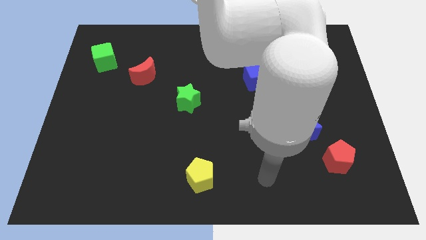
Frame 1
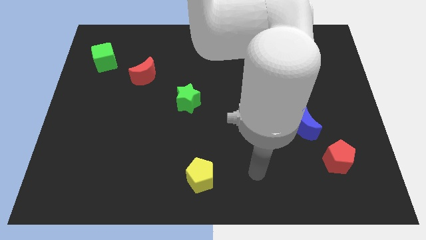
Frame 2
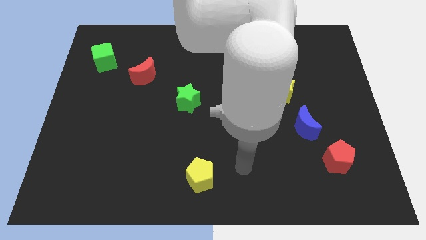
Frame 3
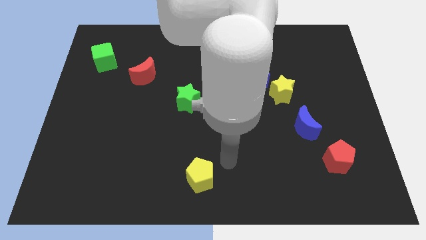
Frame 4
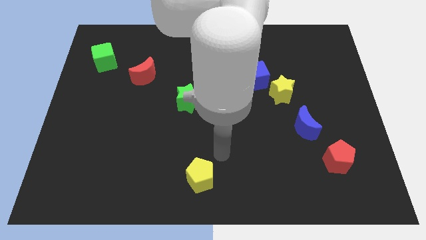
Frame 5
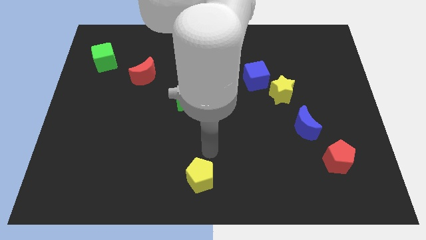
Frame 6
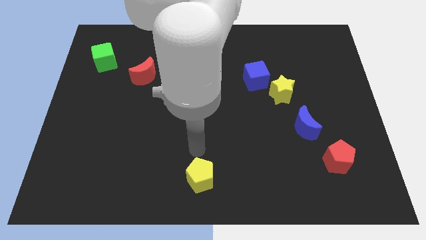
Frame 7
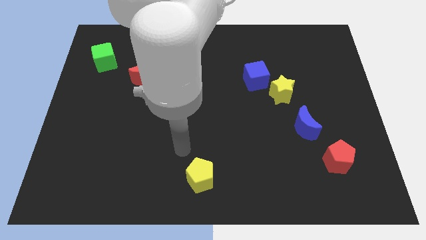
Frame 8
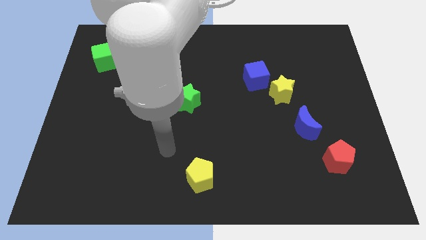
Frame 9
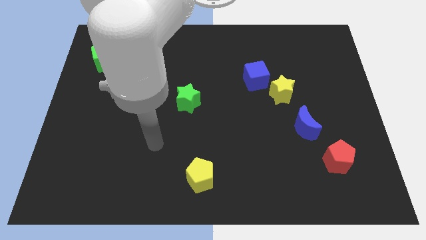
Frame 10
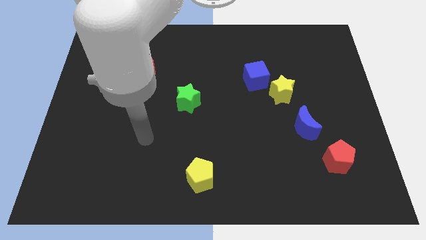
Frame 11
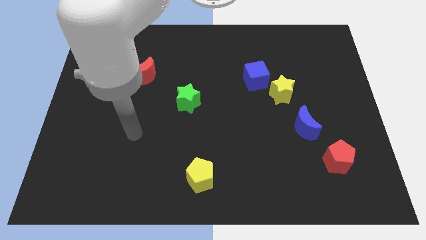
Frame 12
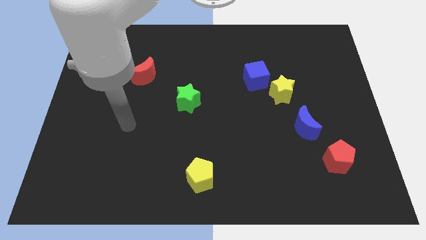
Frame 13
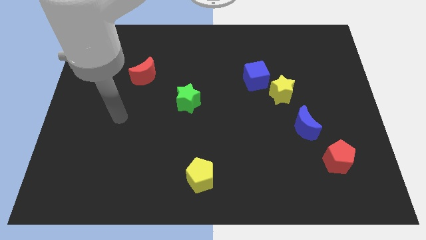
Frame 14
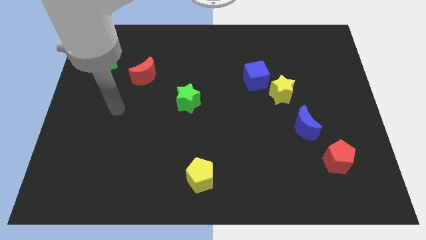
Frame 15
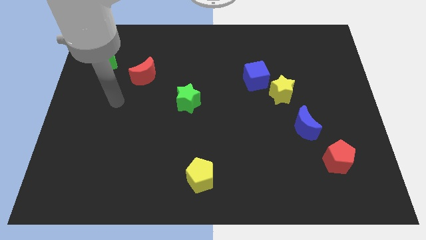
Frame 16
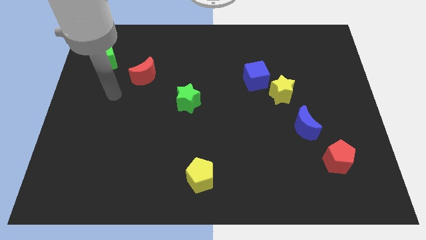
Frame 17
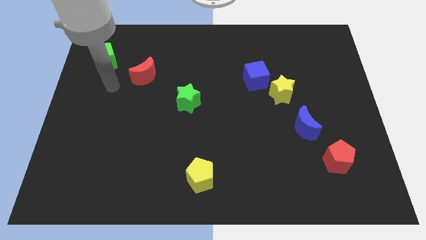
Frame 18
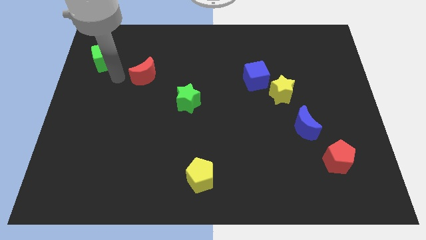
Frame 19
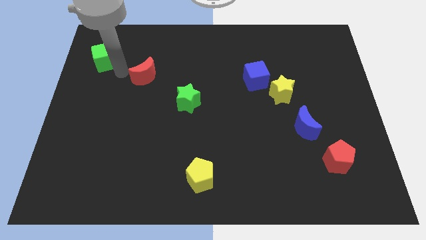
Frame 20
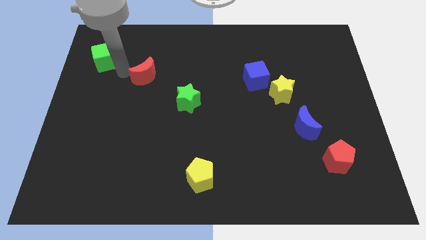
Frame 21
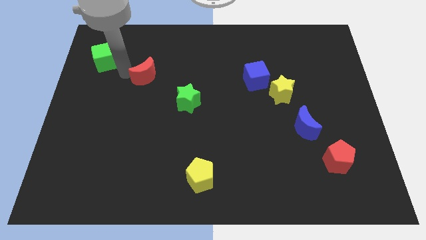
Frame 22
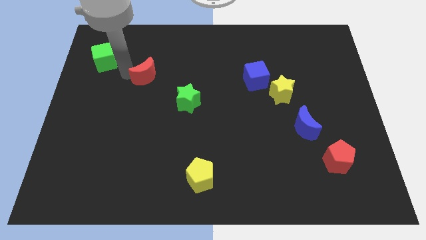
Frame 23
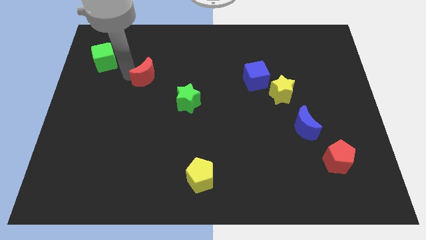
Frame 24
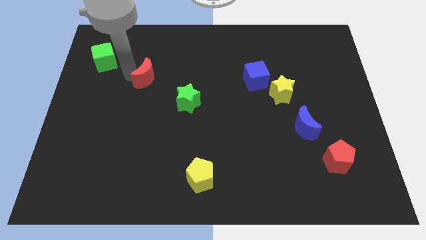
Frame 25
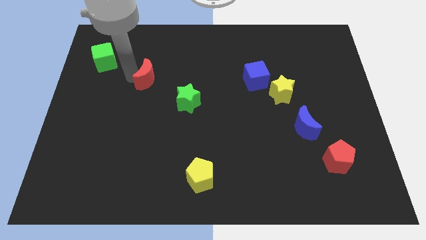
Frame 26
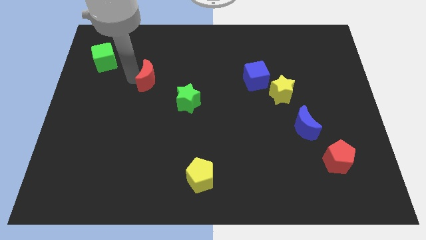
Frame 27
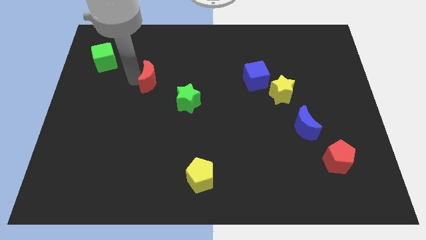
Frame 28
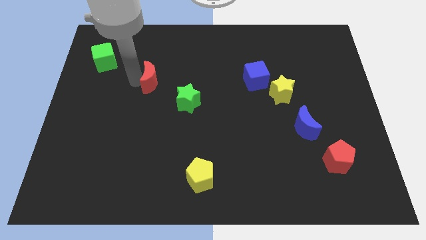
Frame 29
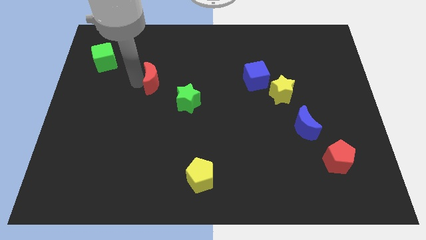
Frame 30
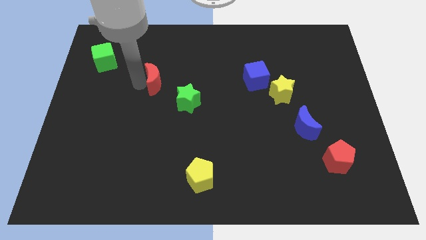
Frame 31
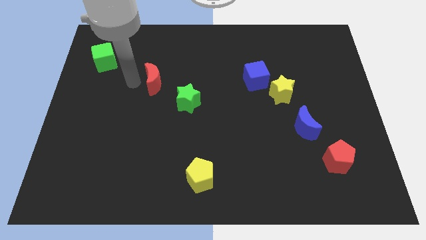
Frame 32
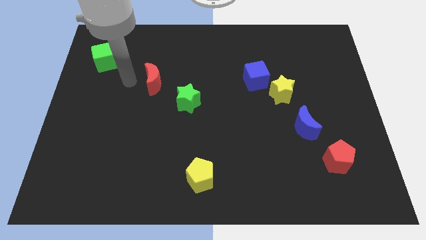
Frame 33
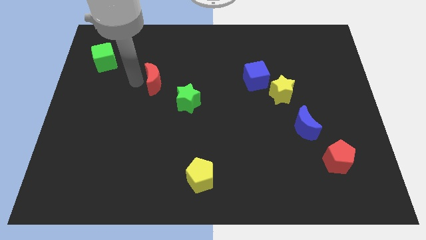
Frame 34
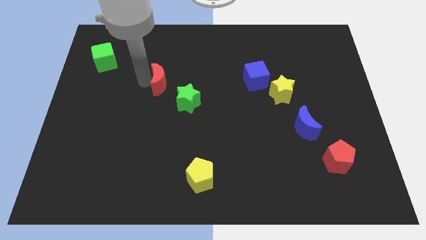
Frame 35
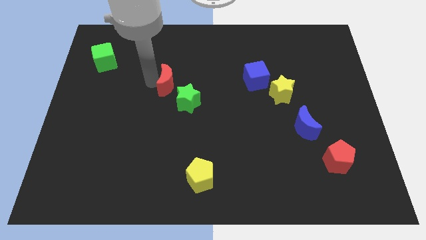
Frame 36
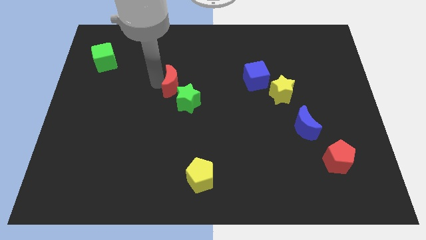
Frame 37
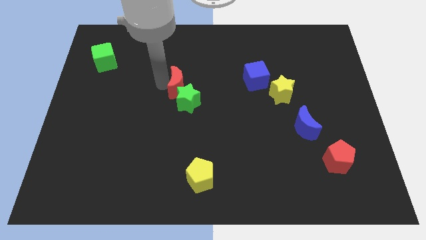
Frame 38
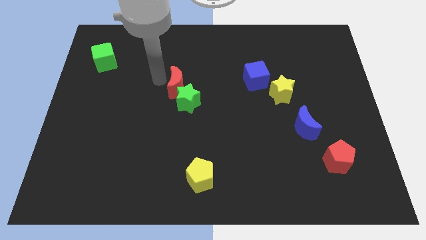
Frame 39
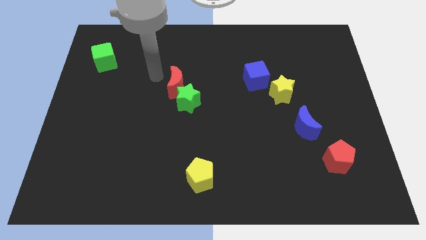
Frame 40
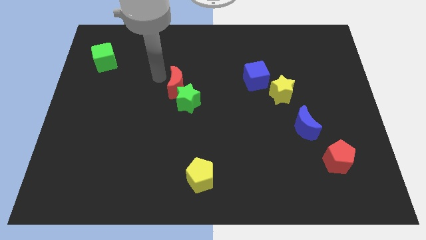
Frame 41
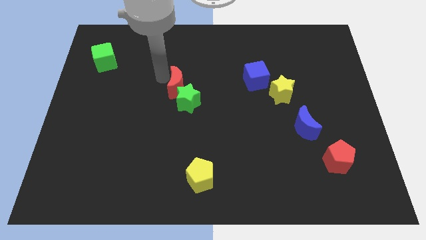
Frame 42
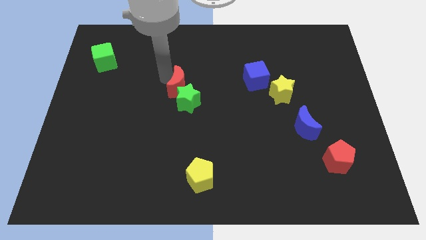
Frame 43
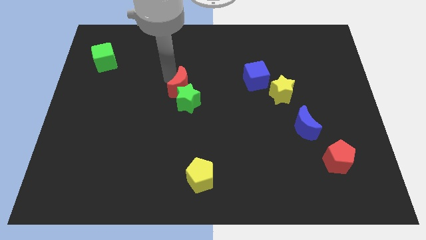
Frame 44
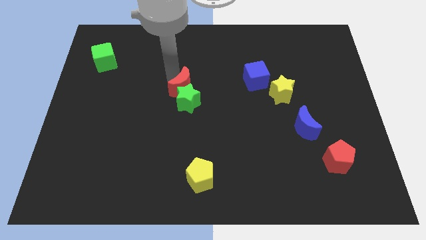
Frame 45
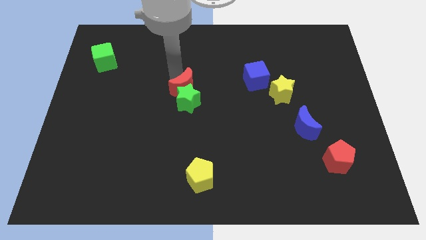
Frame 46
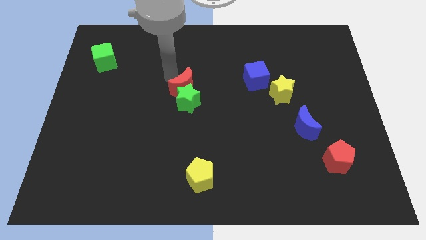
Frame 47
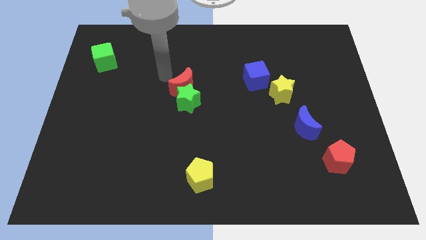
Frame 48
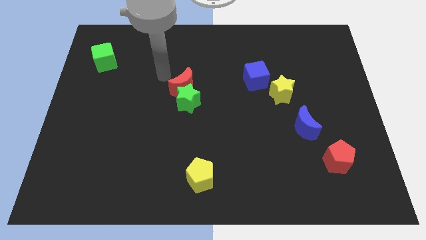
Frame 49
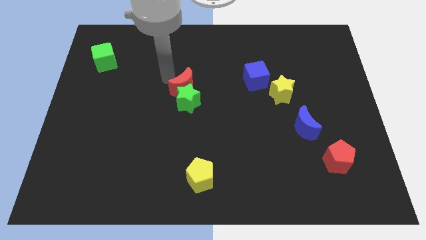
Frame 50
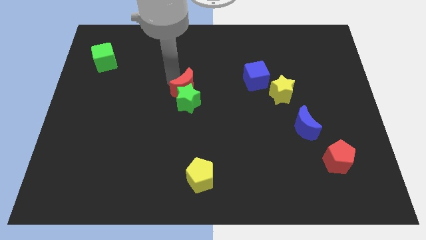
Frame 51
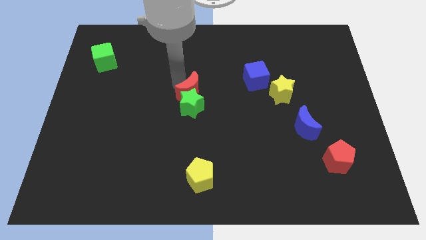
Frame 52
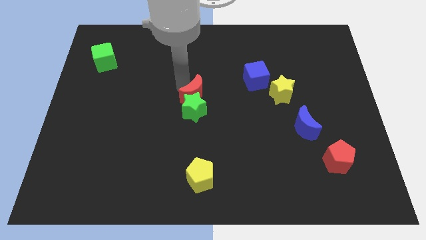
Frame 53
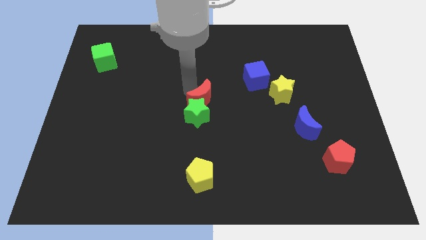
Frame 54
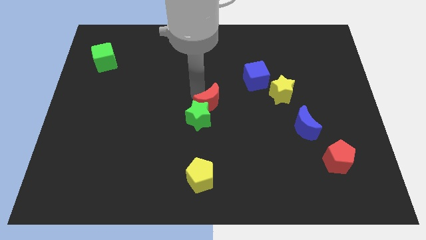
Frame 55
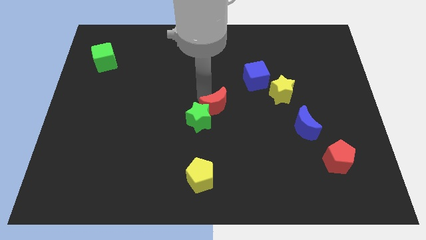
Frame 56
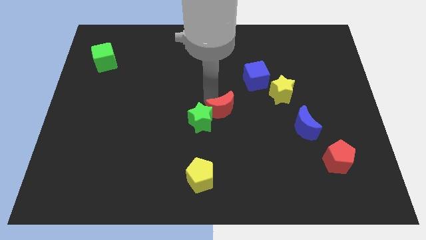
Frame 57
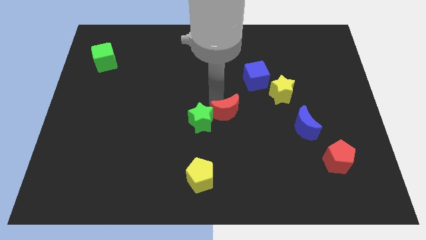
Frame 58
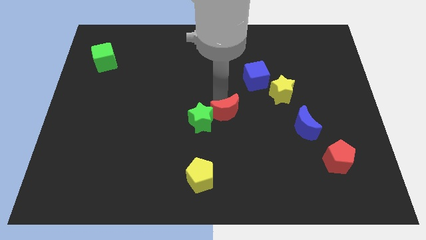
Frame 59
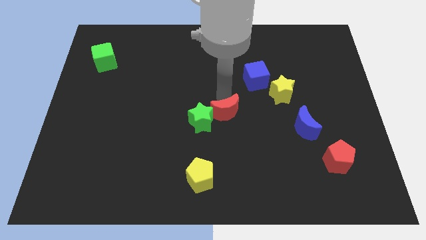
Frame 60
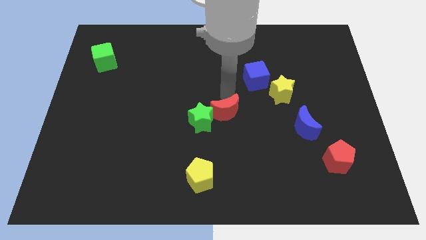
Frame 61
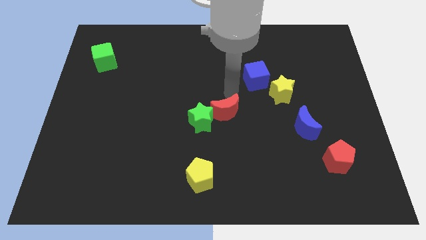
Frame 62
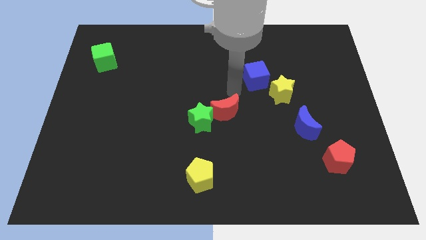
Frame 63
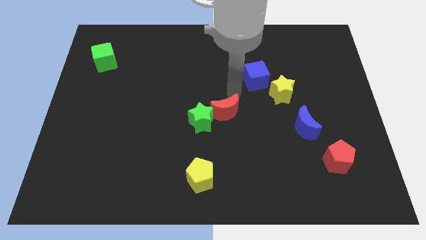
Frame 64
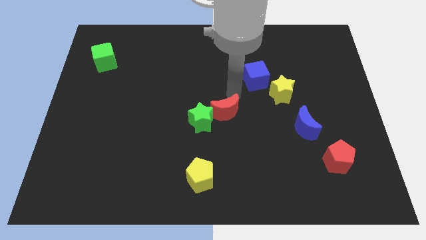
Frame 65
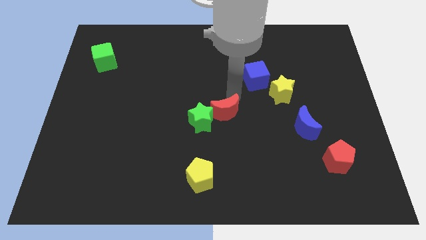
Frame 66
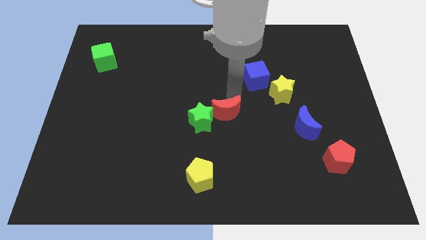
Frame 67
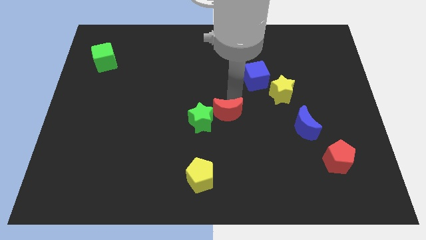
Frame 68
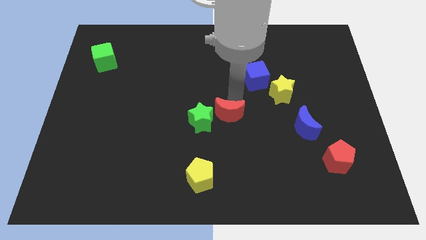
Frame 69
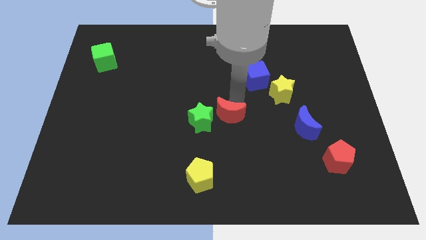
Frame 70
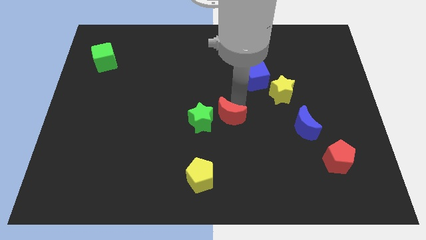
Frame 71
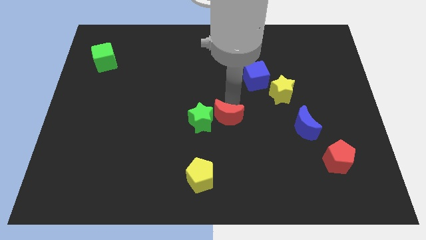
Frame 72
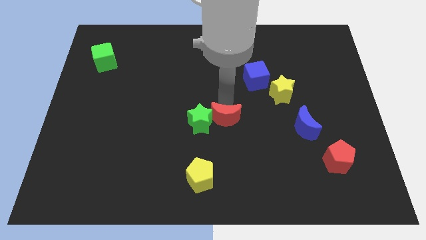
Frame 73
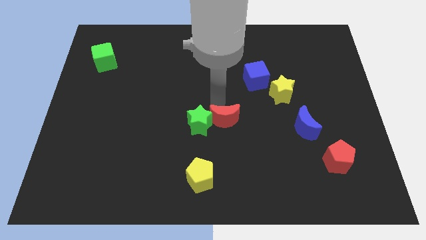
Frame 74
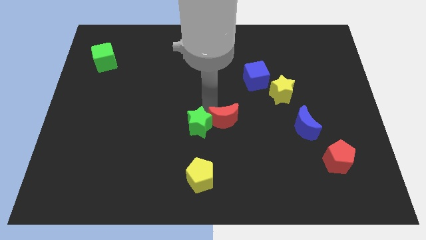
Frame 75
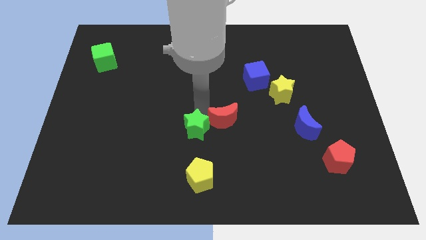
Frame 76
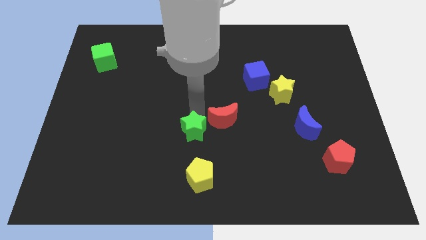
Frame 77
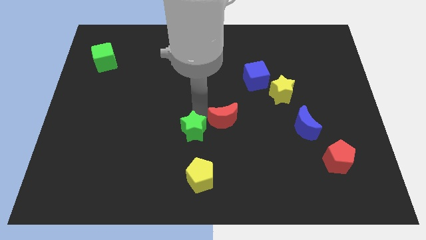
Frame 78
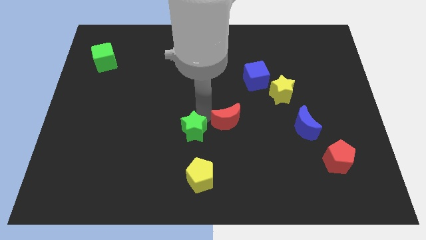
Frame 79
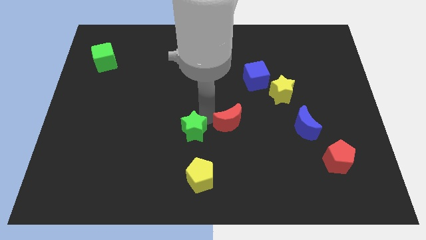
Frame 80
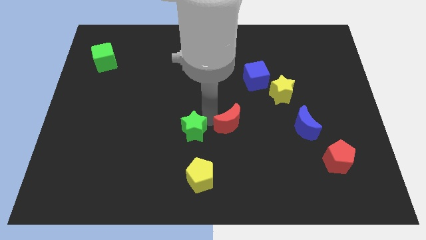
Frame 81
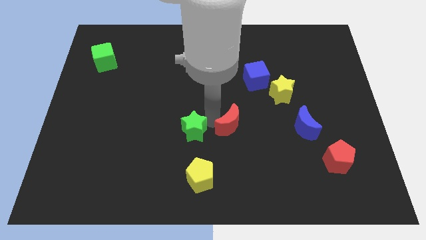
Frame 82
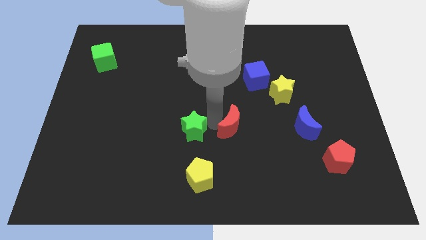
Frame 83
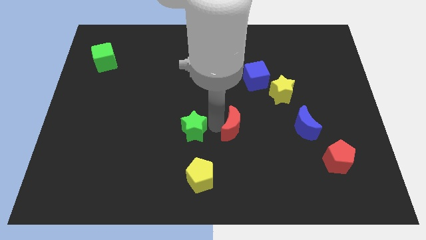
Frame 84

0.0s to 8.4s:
put the red moon left of the blue moon
